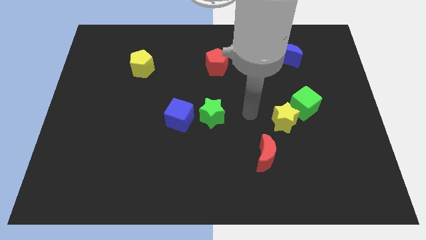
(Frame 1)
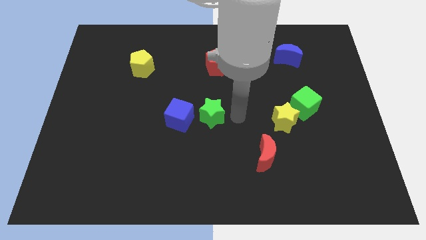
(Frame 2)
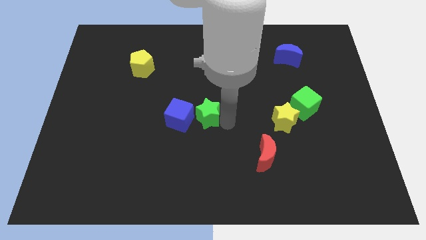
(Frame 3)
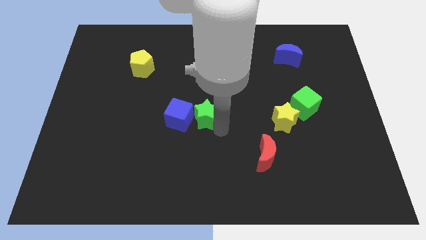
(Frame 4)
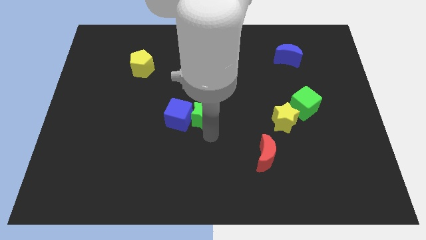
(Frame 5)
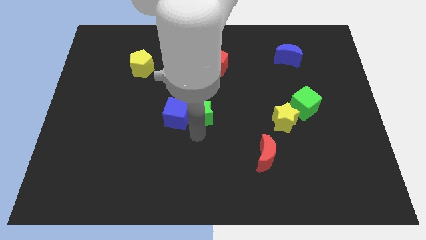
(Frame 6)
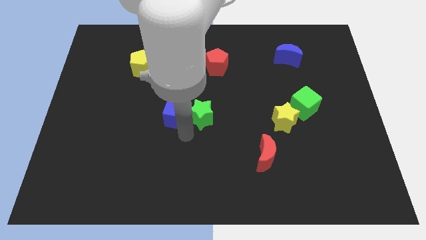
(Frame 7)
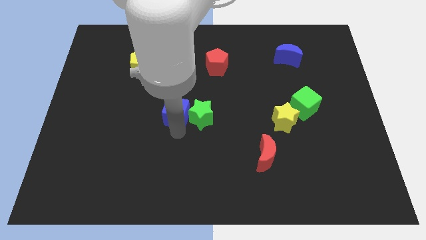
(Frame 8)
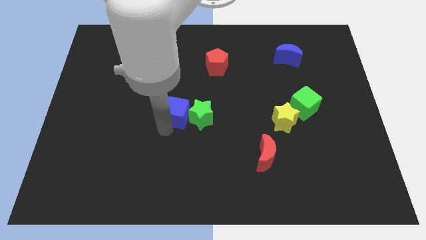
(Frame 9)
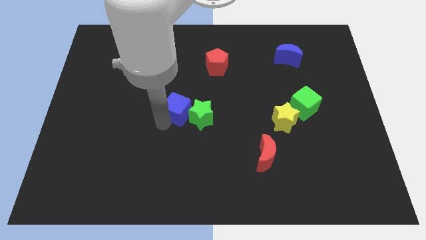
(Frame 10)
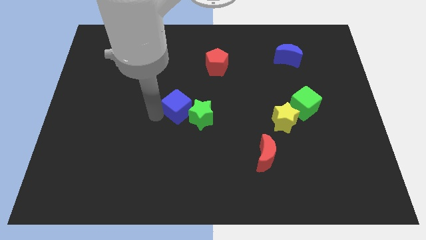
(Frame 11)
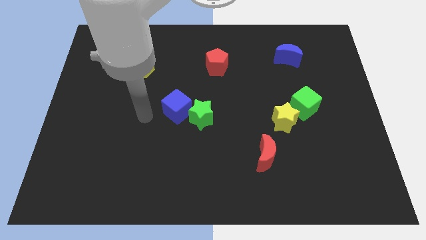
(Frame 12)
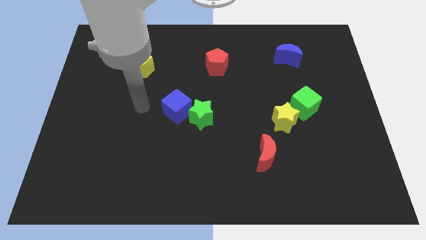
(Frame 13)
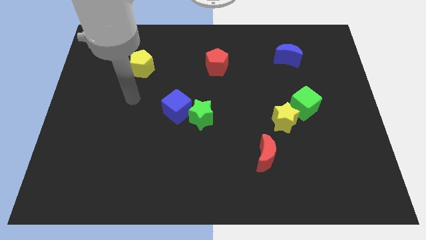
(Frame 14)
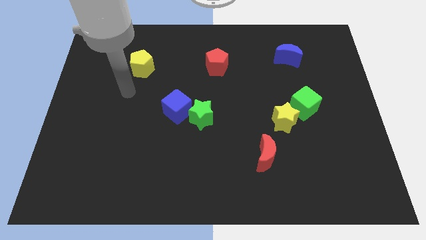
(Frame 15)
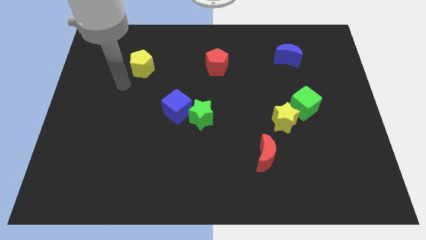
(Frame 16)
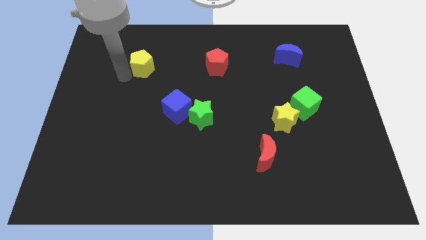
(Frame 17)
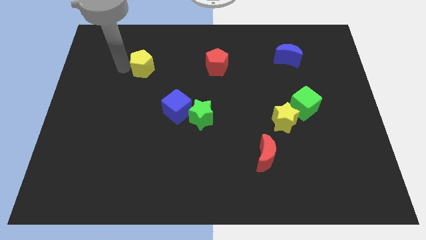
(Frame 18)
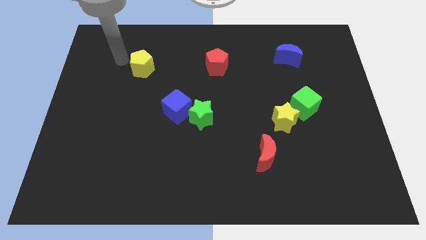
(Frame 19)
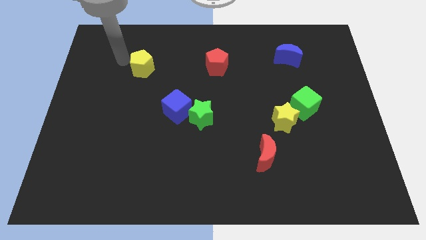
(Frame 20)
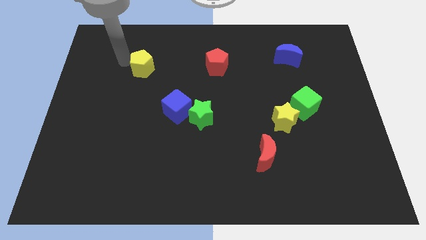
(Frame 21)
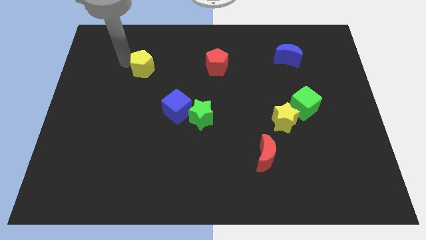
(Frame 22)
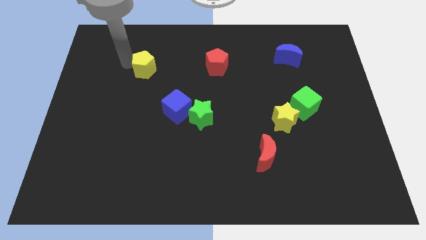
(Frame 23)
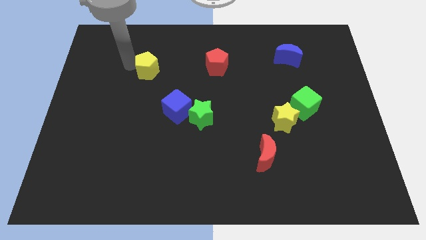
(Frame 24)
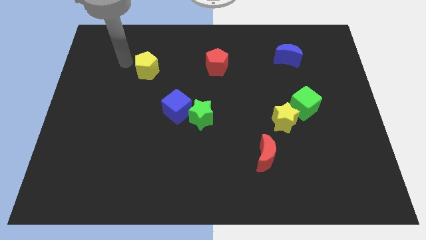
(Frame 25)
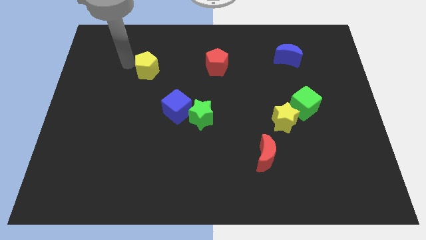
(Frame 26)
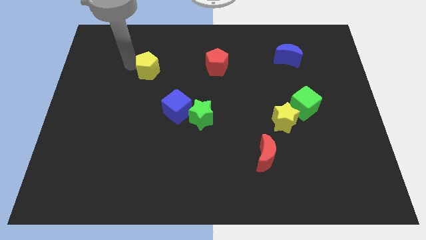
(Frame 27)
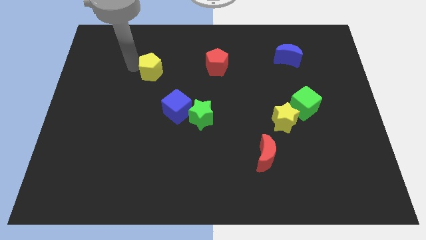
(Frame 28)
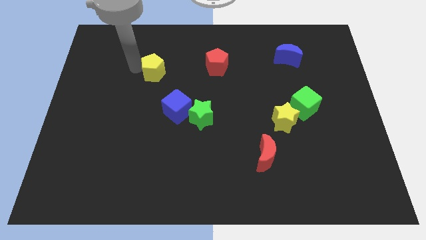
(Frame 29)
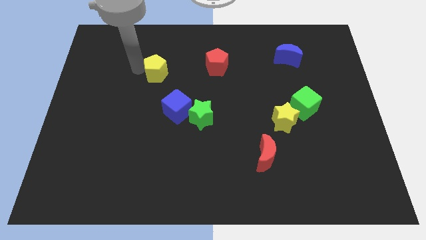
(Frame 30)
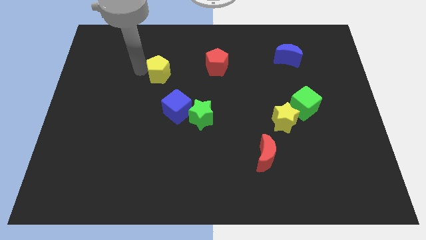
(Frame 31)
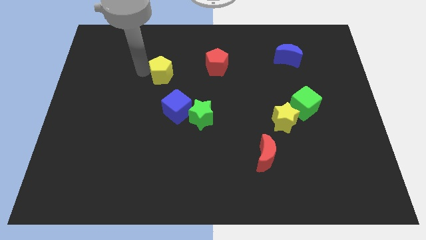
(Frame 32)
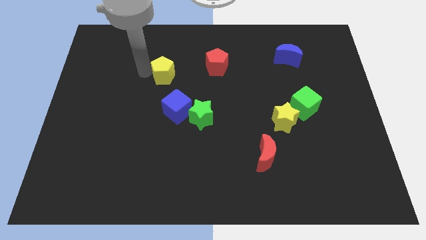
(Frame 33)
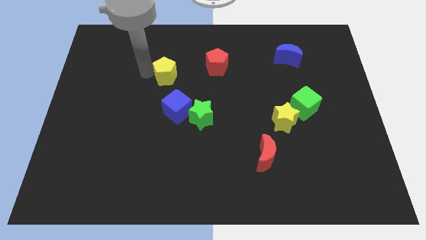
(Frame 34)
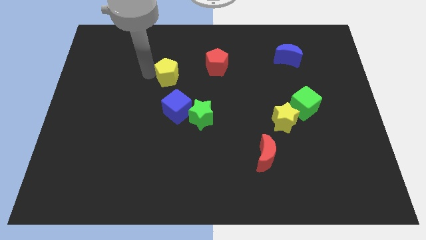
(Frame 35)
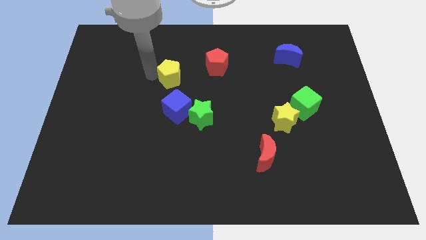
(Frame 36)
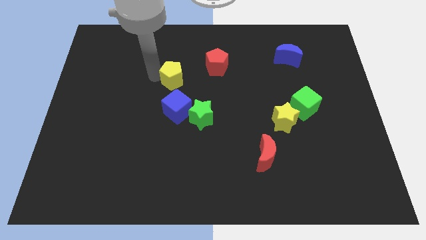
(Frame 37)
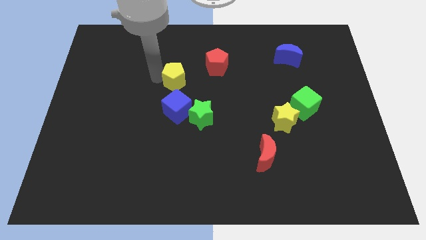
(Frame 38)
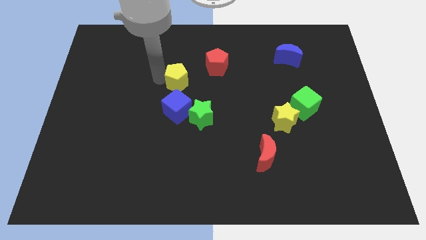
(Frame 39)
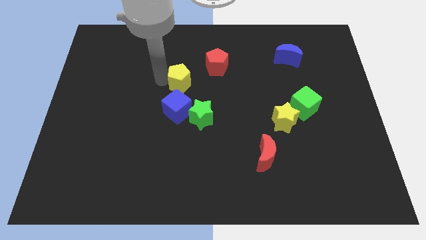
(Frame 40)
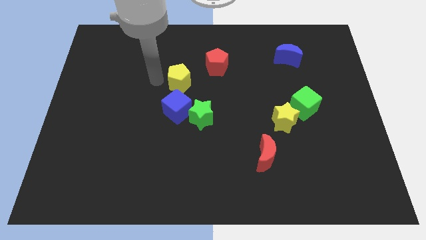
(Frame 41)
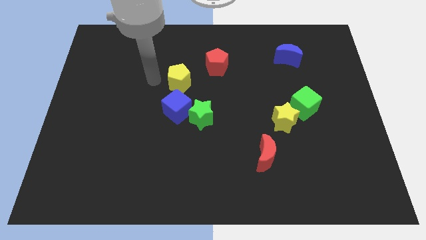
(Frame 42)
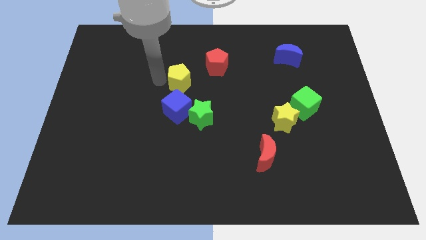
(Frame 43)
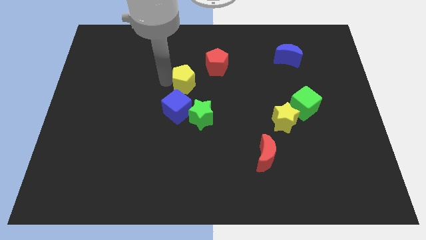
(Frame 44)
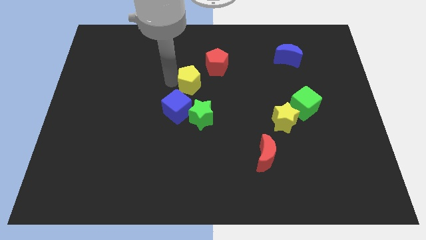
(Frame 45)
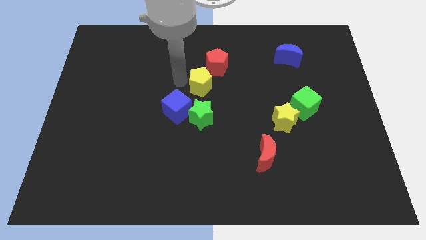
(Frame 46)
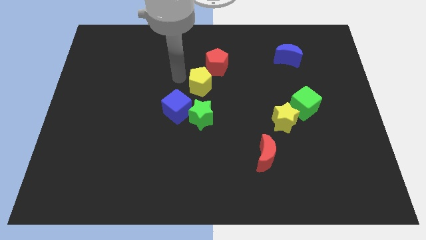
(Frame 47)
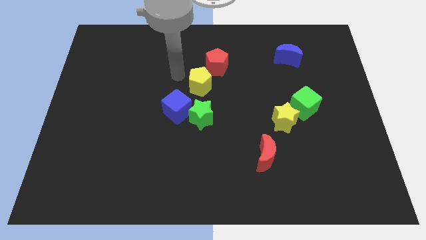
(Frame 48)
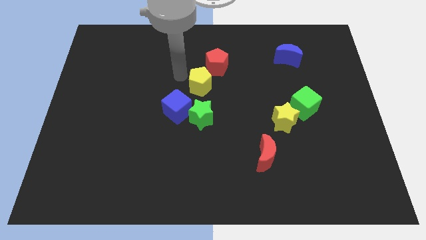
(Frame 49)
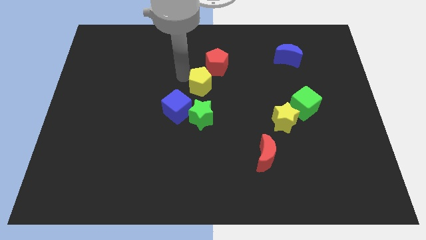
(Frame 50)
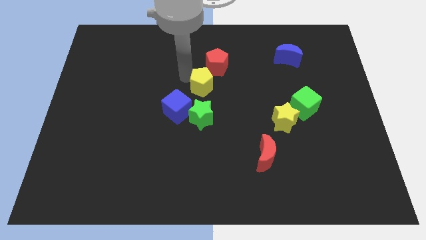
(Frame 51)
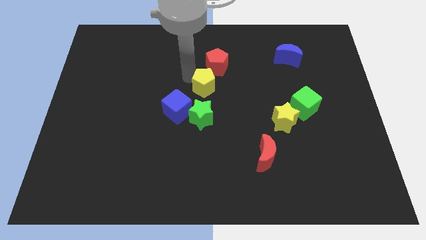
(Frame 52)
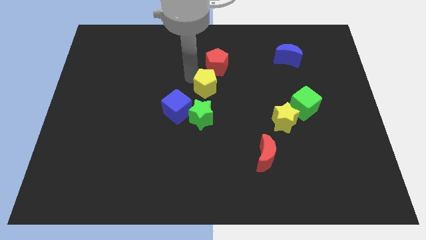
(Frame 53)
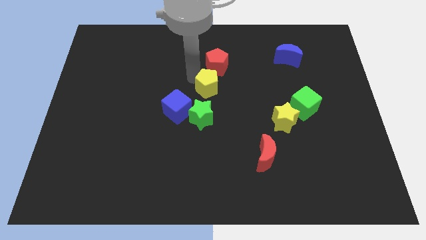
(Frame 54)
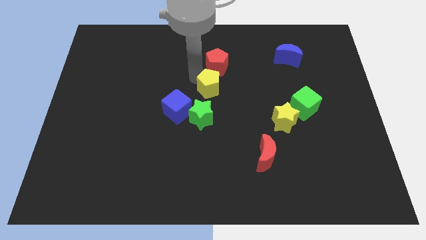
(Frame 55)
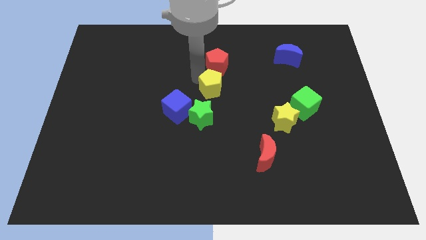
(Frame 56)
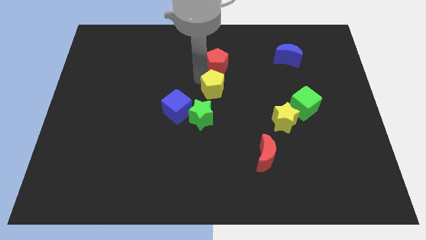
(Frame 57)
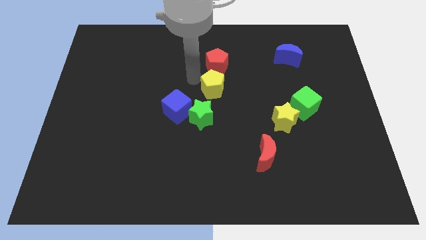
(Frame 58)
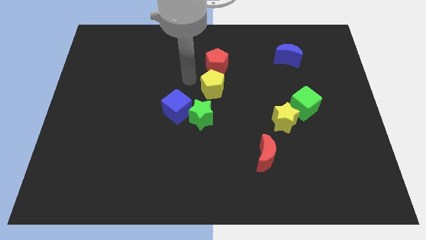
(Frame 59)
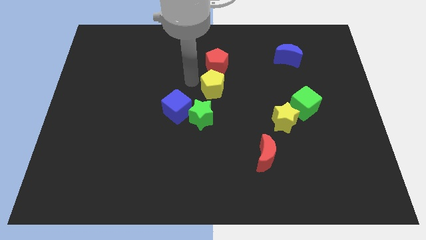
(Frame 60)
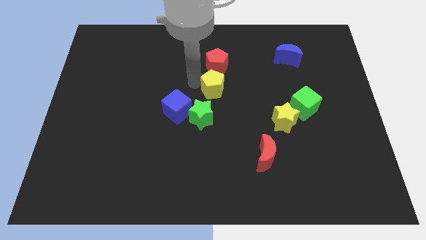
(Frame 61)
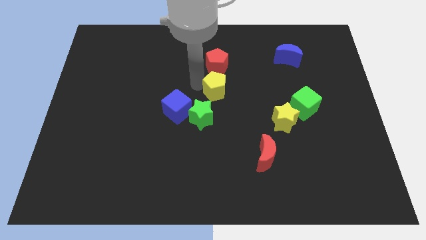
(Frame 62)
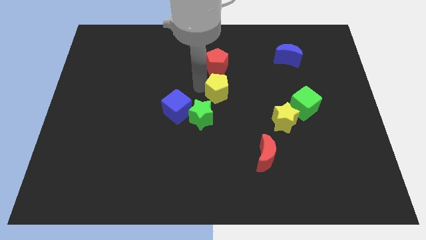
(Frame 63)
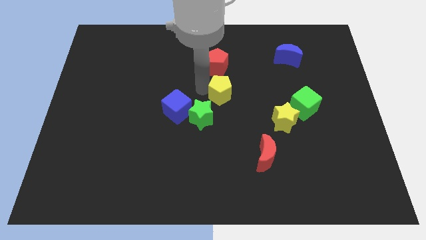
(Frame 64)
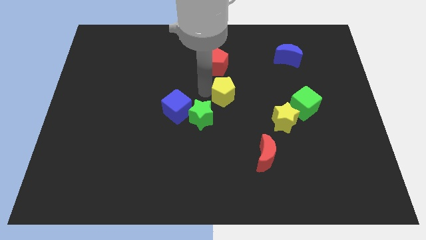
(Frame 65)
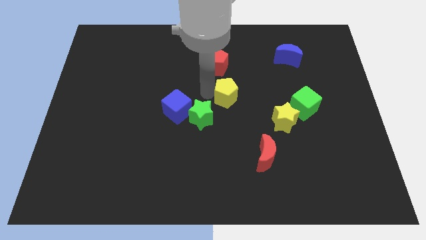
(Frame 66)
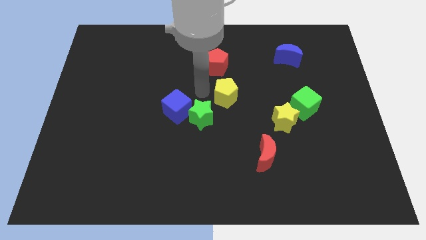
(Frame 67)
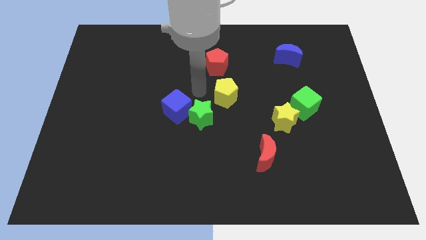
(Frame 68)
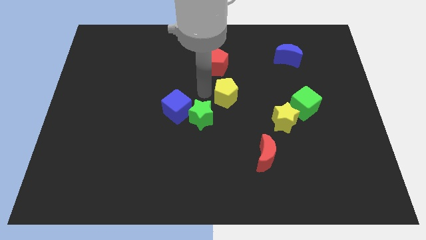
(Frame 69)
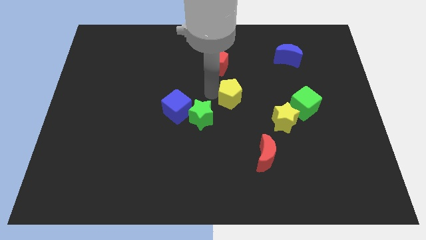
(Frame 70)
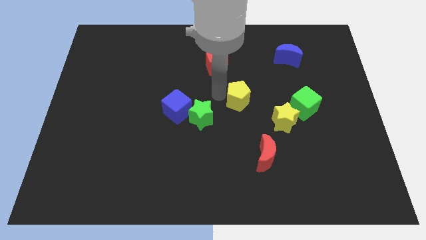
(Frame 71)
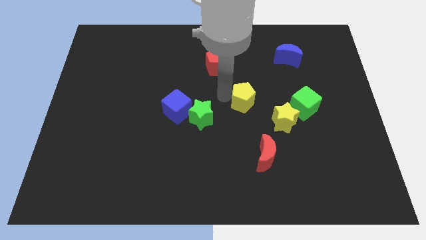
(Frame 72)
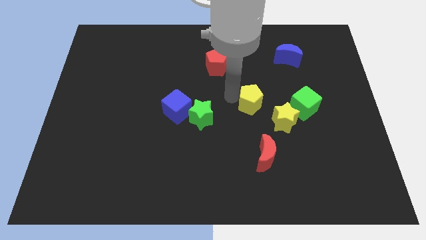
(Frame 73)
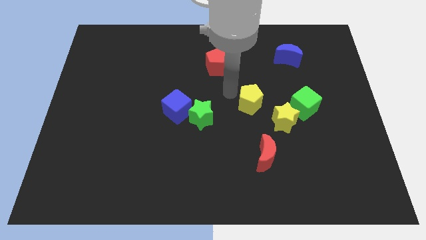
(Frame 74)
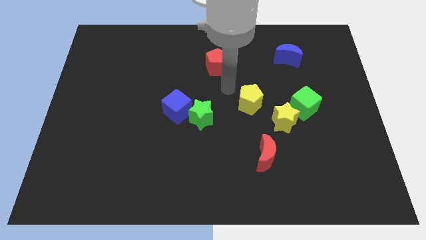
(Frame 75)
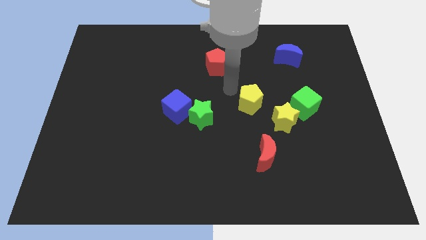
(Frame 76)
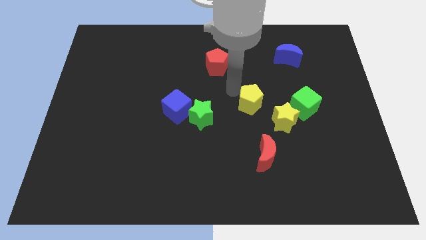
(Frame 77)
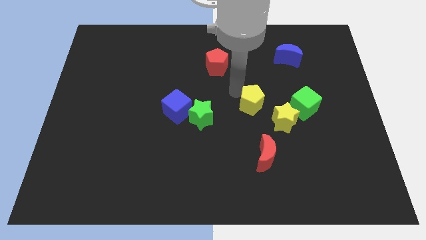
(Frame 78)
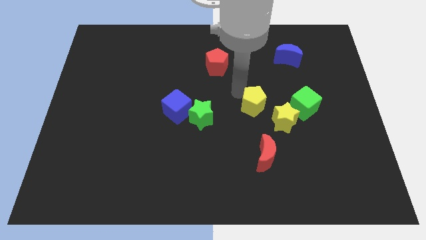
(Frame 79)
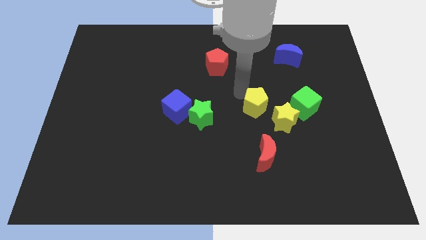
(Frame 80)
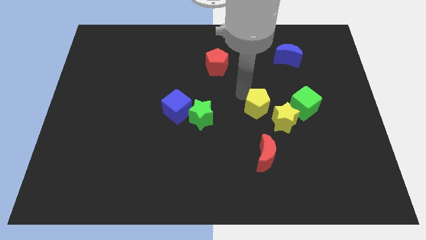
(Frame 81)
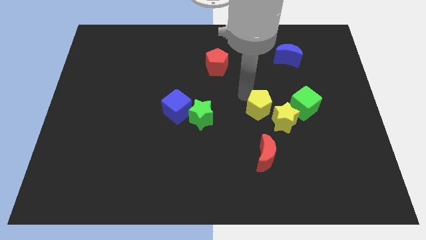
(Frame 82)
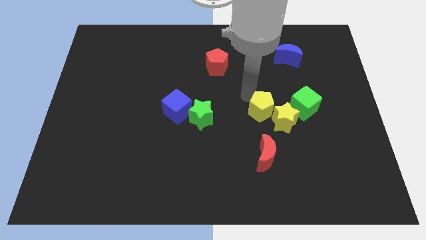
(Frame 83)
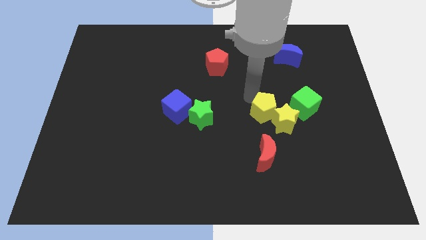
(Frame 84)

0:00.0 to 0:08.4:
push the yellow pentagon next to the yellow star
